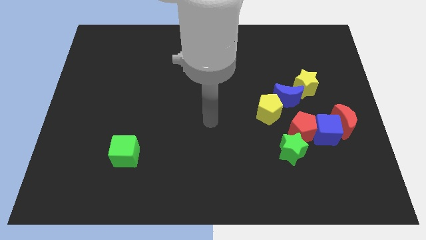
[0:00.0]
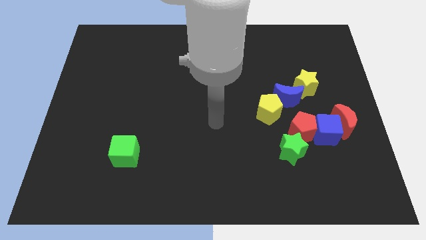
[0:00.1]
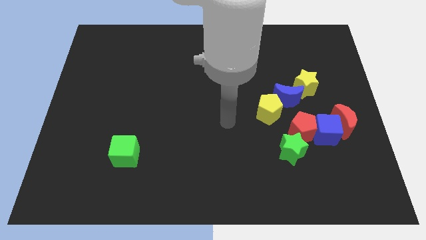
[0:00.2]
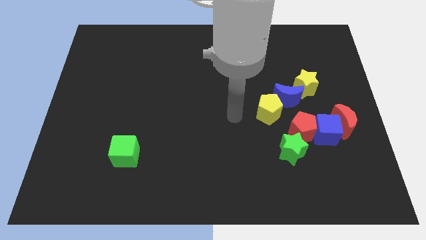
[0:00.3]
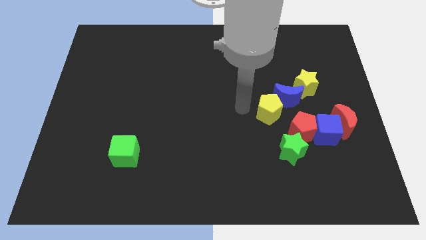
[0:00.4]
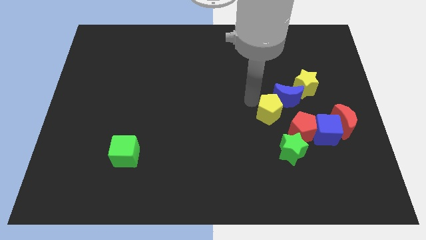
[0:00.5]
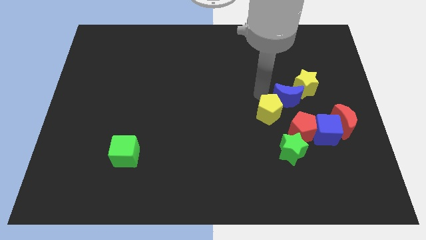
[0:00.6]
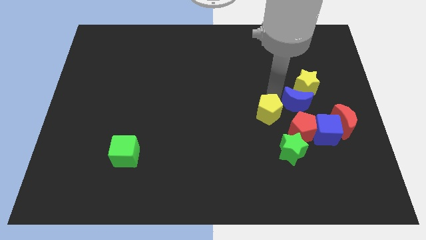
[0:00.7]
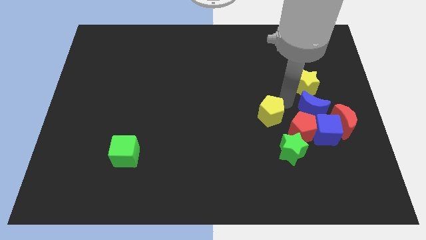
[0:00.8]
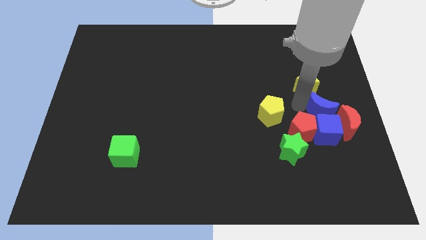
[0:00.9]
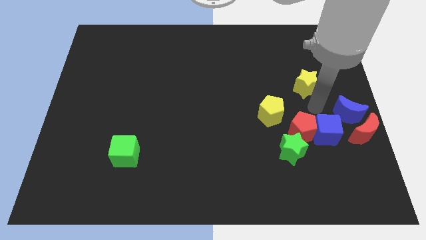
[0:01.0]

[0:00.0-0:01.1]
move the yellow star away from the blue moon

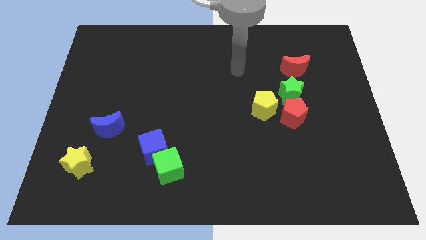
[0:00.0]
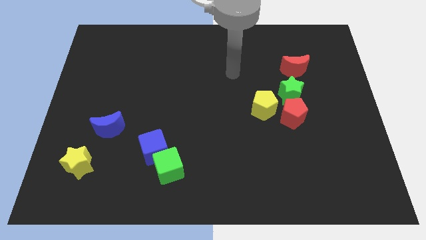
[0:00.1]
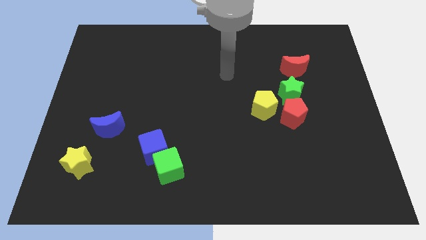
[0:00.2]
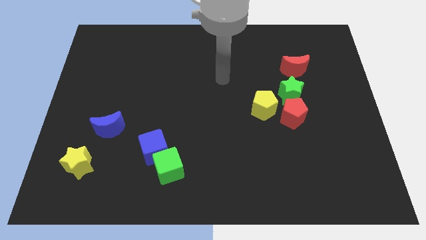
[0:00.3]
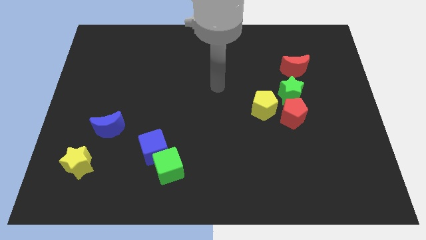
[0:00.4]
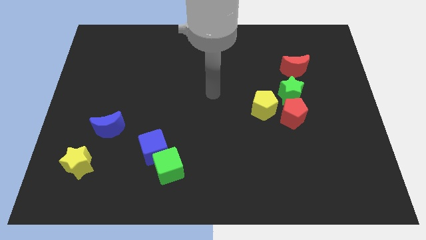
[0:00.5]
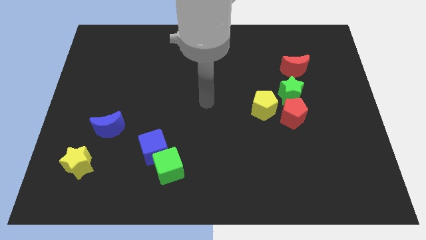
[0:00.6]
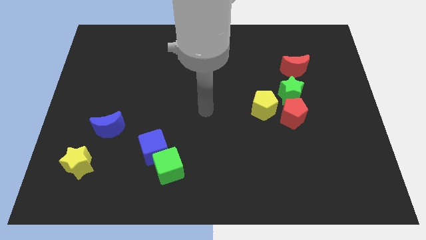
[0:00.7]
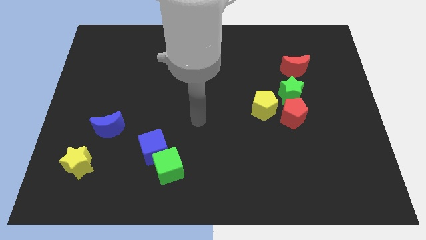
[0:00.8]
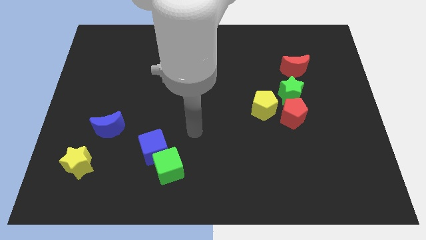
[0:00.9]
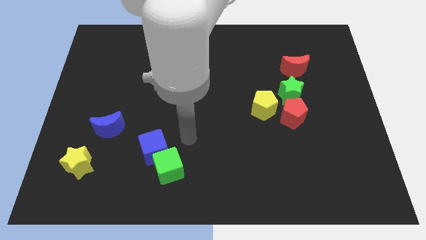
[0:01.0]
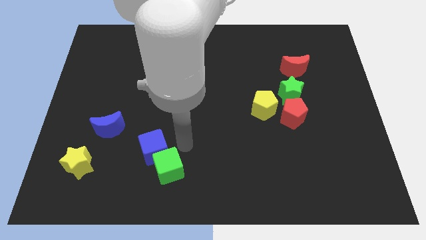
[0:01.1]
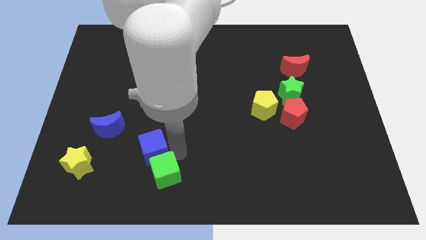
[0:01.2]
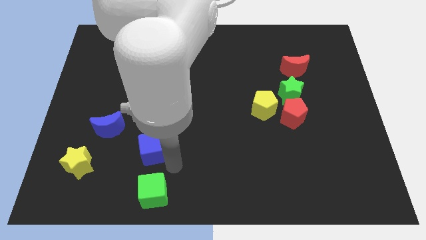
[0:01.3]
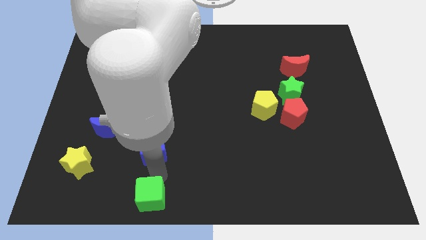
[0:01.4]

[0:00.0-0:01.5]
separate the blue cube from the green cube

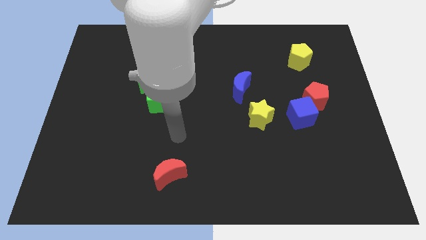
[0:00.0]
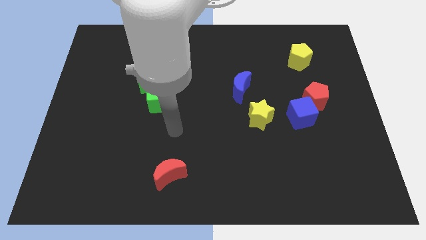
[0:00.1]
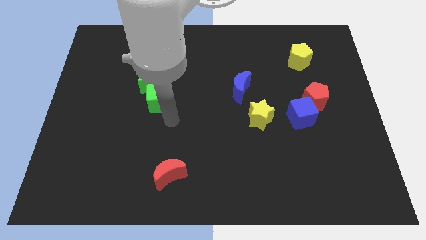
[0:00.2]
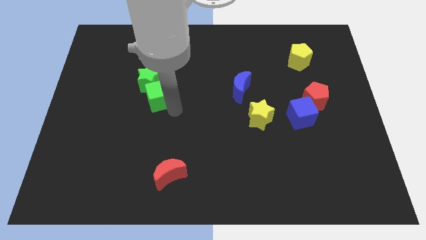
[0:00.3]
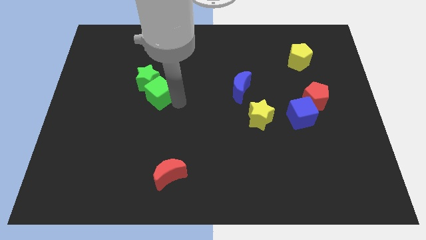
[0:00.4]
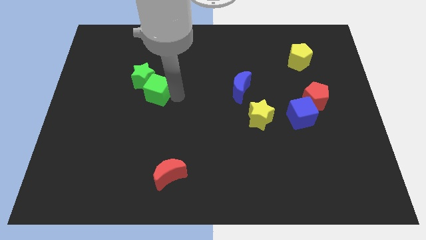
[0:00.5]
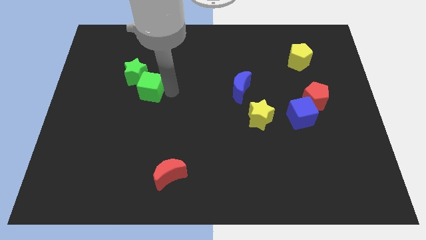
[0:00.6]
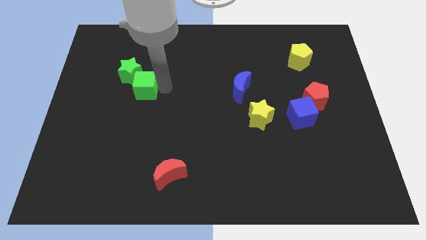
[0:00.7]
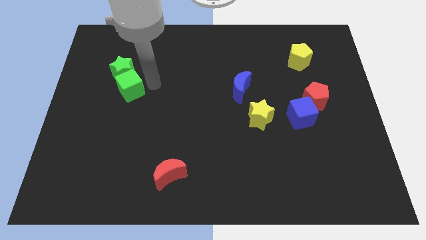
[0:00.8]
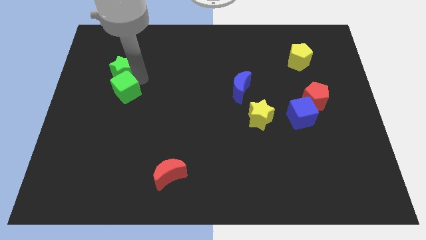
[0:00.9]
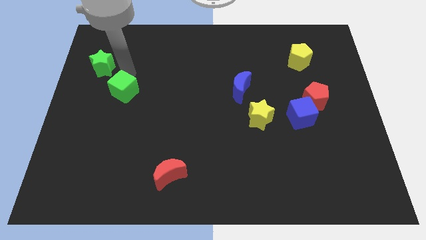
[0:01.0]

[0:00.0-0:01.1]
separate the green cube from the green star

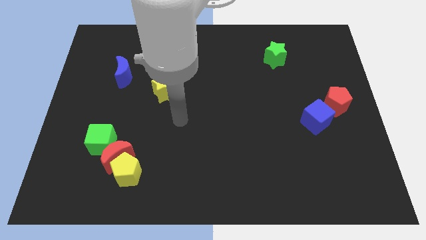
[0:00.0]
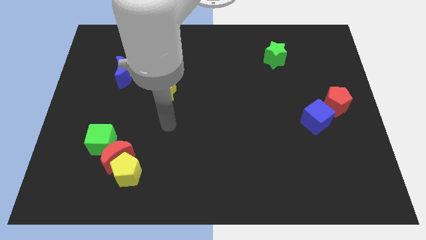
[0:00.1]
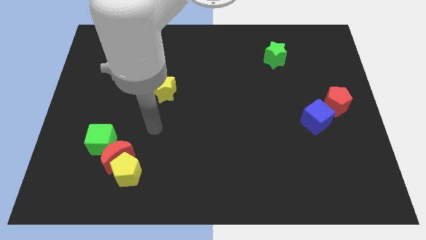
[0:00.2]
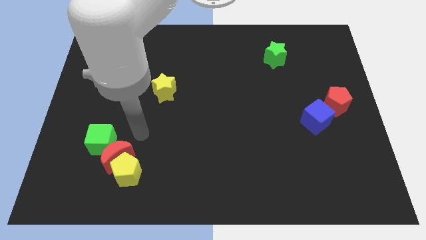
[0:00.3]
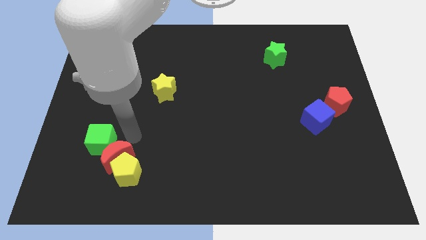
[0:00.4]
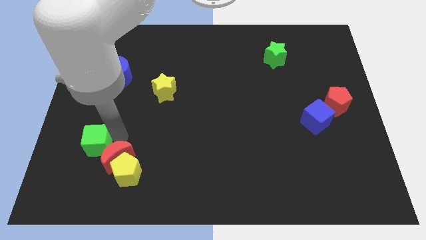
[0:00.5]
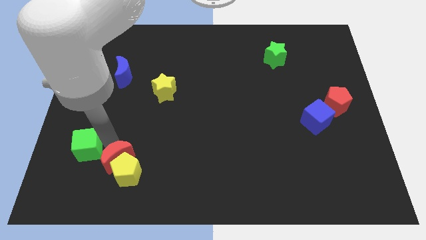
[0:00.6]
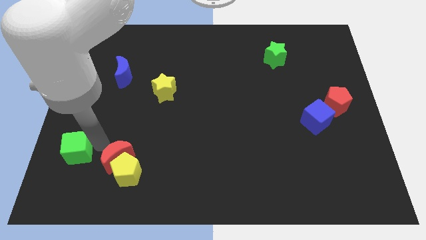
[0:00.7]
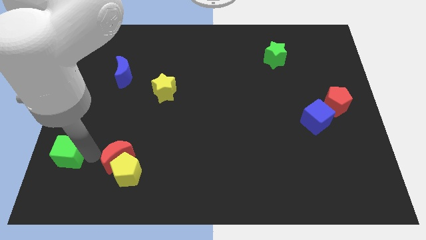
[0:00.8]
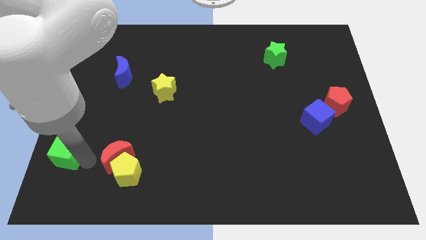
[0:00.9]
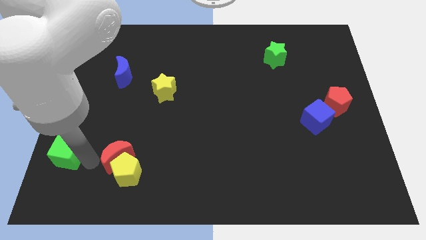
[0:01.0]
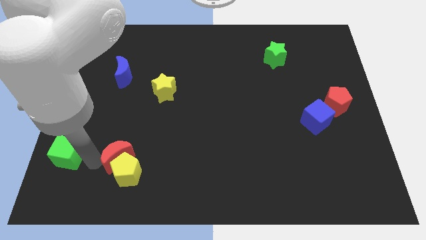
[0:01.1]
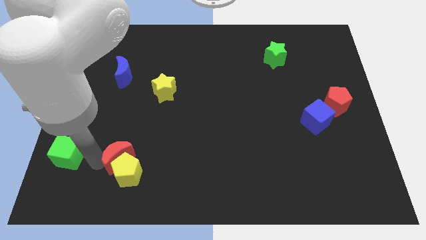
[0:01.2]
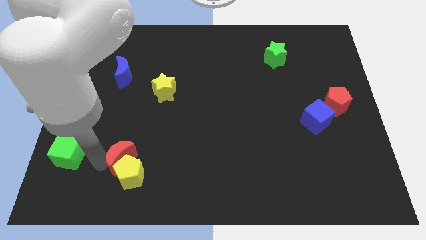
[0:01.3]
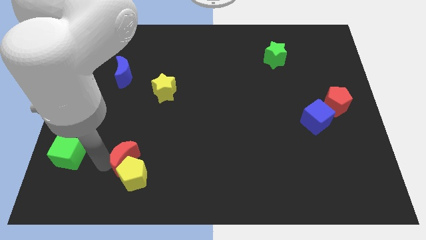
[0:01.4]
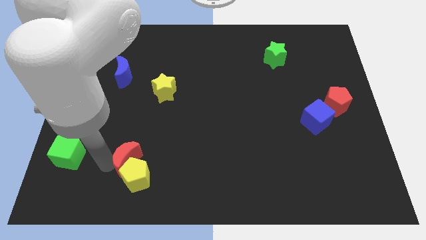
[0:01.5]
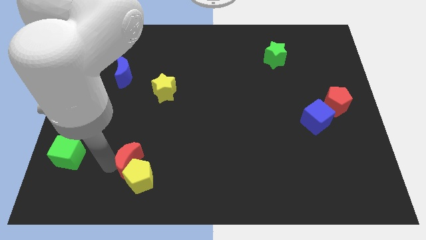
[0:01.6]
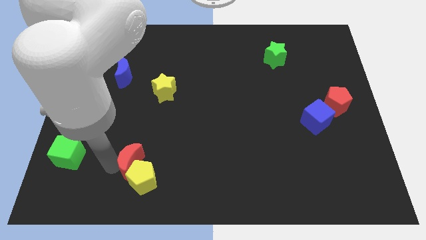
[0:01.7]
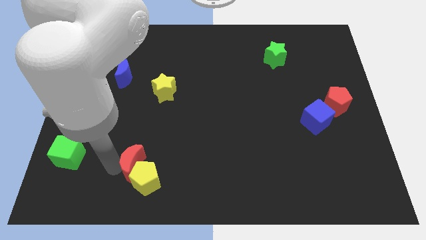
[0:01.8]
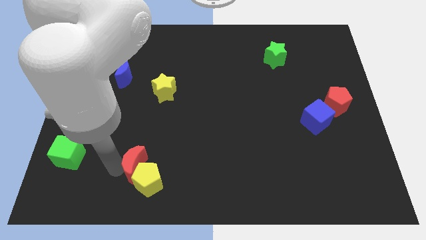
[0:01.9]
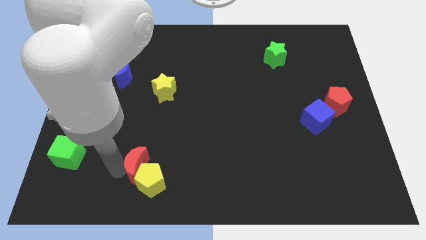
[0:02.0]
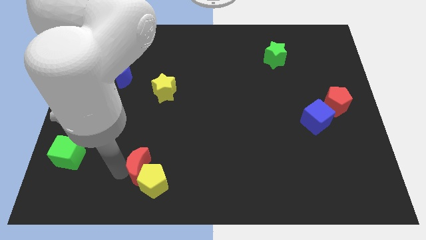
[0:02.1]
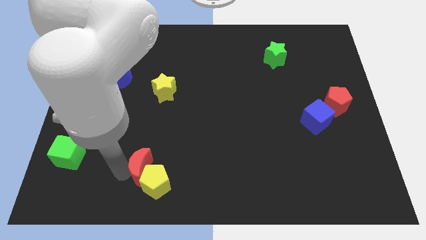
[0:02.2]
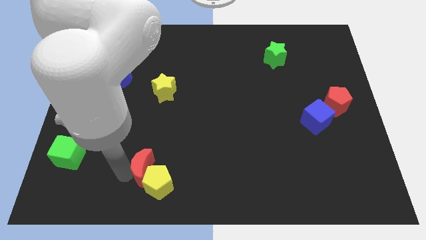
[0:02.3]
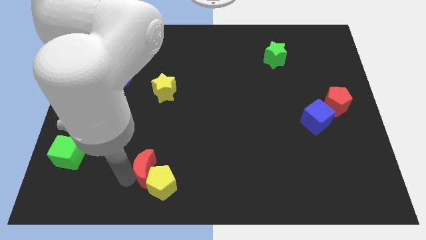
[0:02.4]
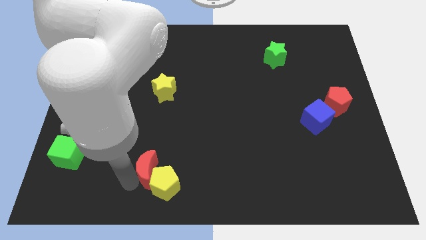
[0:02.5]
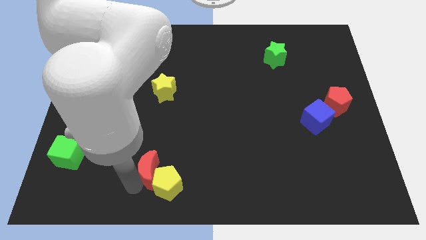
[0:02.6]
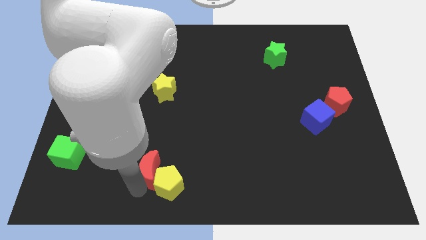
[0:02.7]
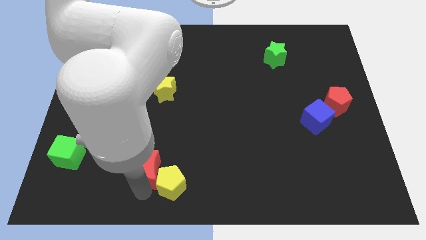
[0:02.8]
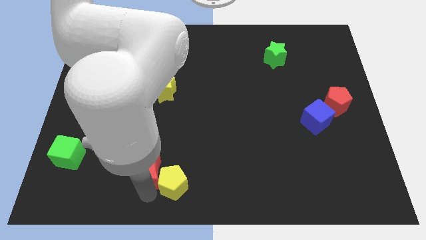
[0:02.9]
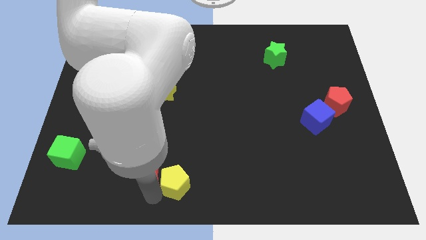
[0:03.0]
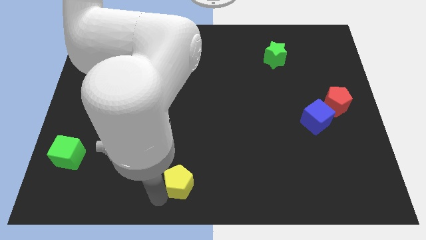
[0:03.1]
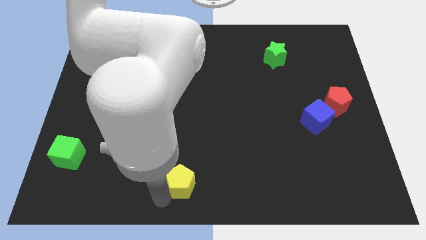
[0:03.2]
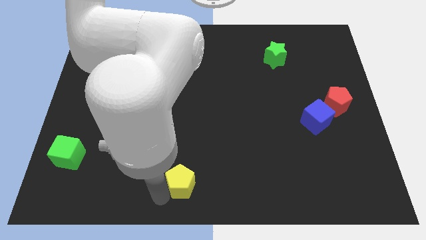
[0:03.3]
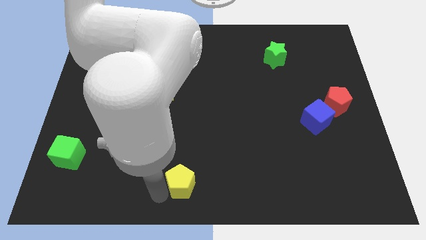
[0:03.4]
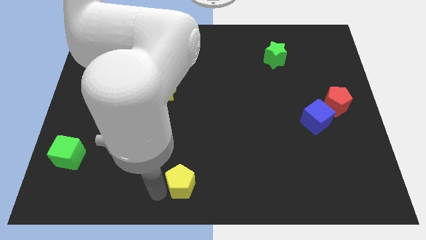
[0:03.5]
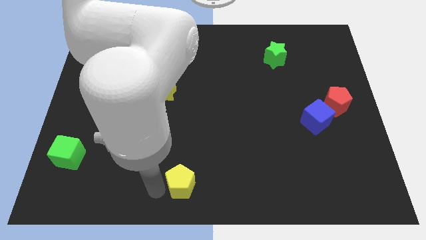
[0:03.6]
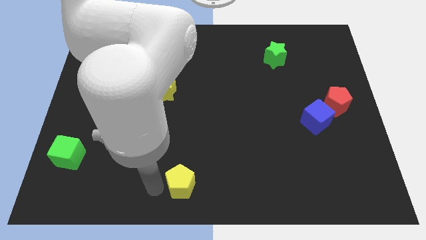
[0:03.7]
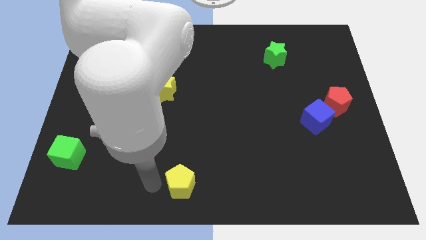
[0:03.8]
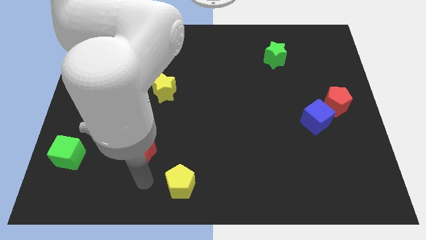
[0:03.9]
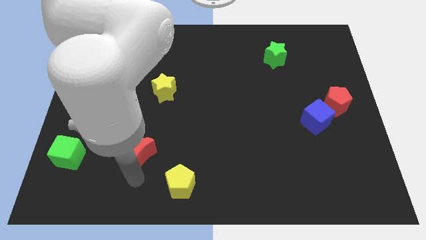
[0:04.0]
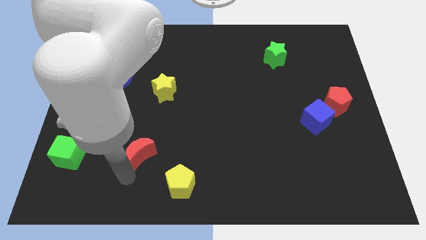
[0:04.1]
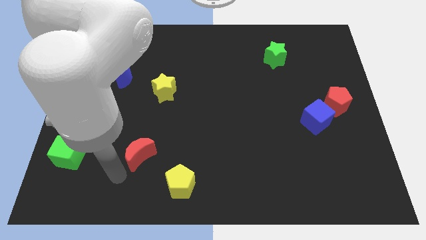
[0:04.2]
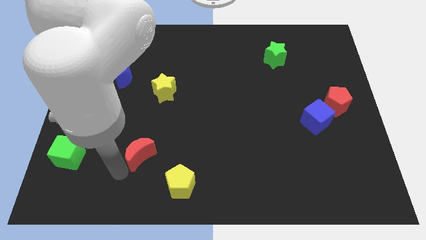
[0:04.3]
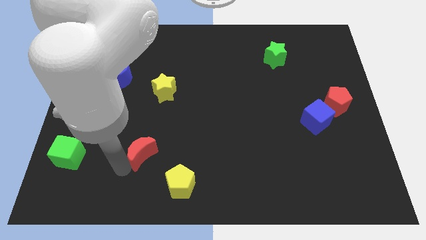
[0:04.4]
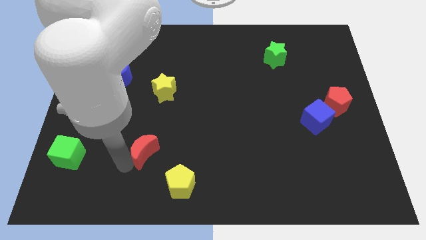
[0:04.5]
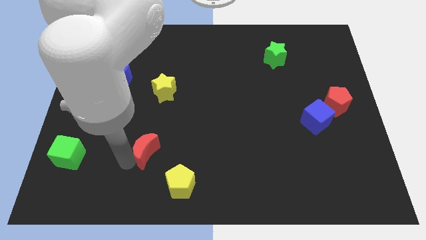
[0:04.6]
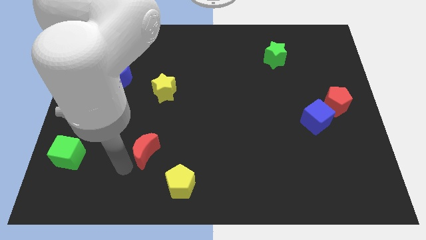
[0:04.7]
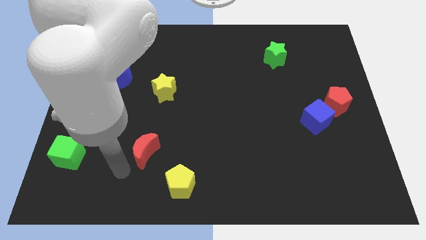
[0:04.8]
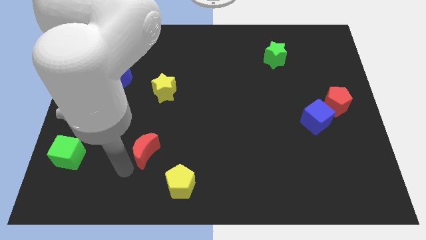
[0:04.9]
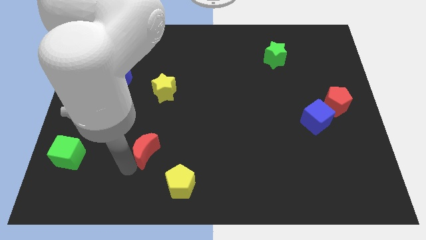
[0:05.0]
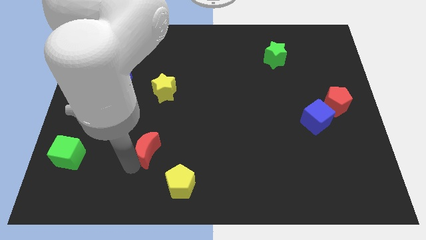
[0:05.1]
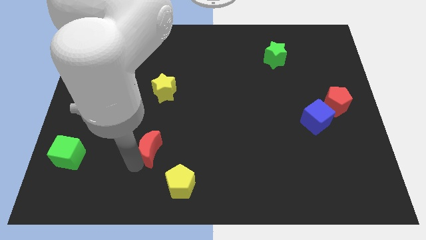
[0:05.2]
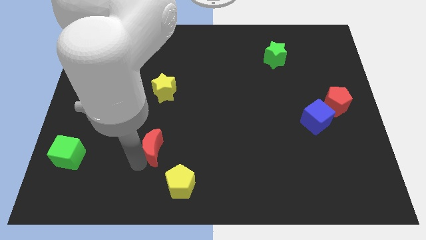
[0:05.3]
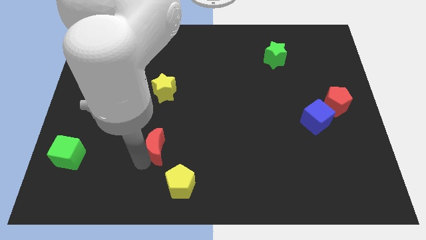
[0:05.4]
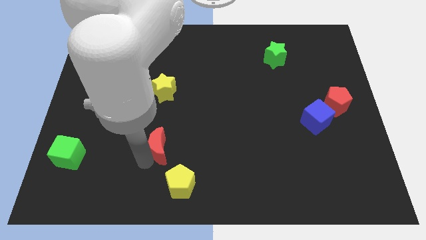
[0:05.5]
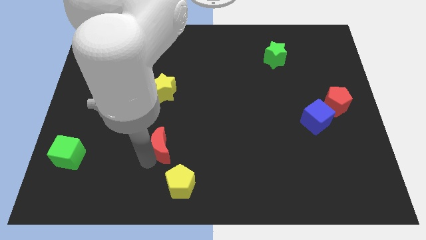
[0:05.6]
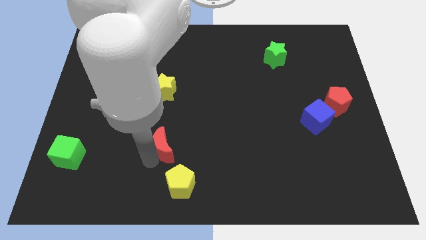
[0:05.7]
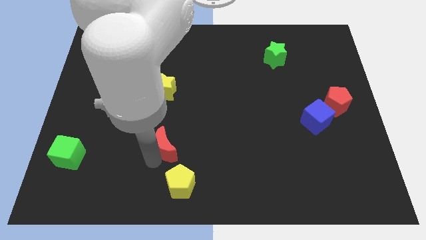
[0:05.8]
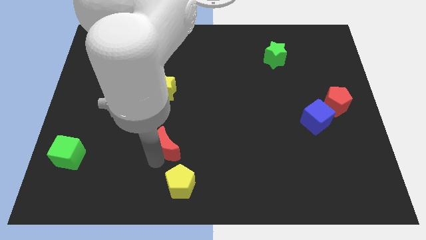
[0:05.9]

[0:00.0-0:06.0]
separate the red moon from the yellow pentagon and green cube
